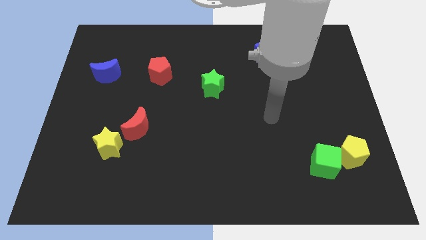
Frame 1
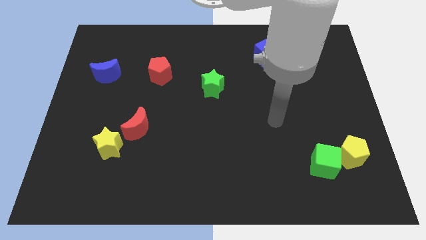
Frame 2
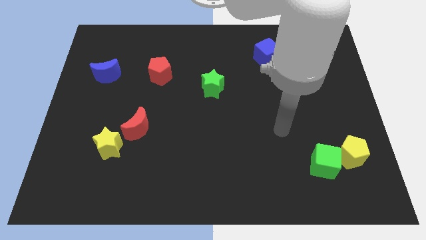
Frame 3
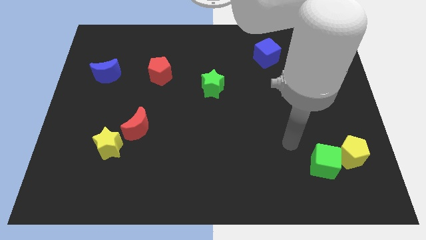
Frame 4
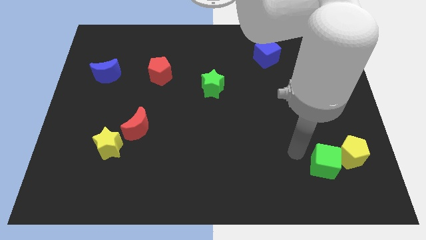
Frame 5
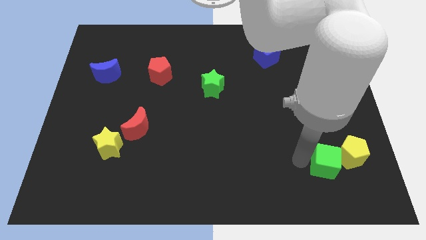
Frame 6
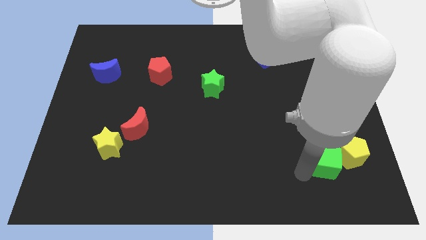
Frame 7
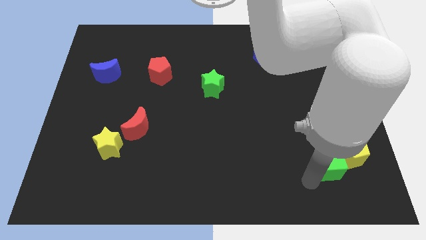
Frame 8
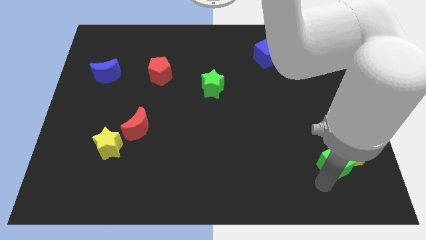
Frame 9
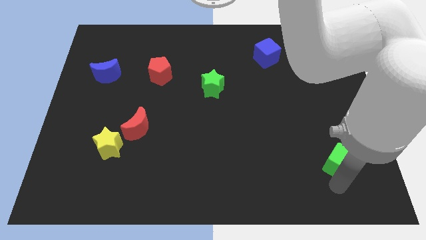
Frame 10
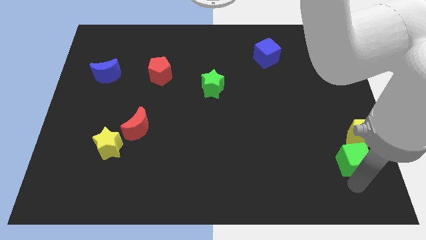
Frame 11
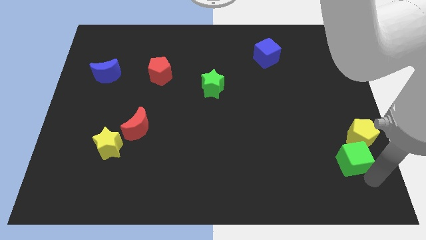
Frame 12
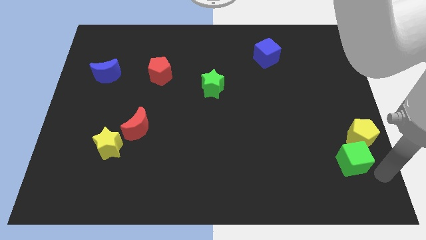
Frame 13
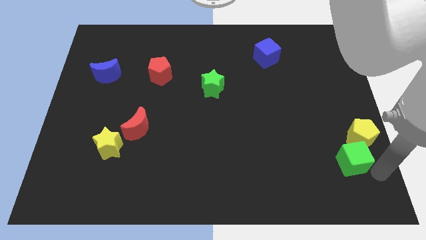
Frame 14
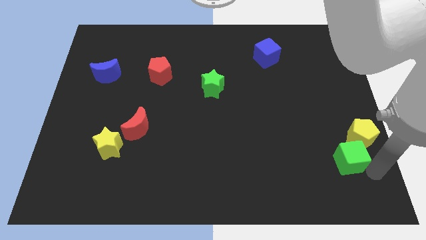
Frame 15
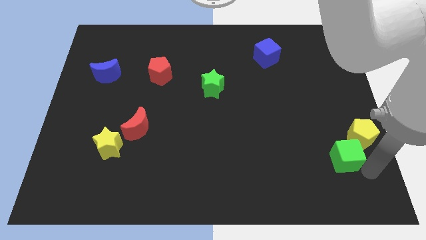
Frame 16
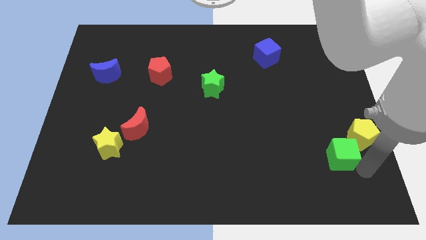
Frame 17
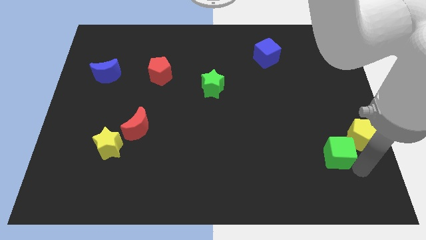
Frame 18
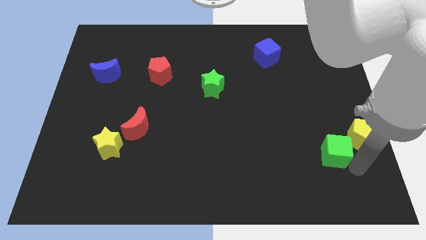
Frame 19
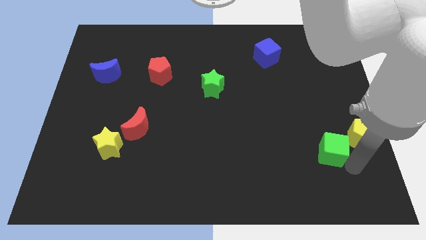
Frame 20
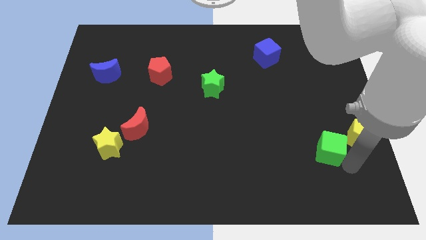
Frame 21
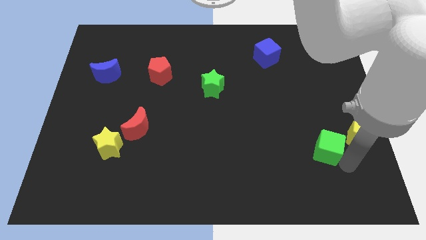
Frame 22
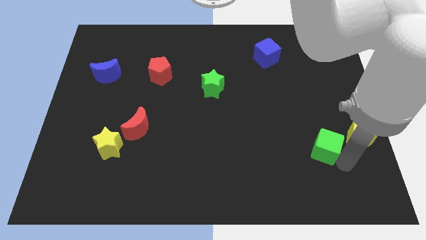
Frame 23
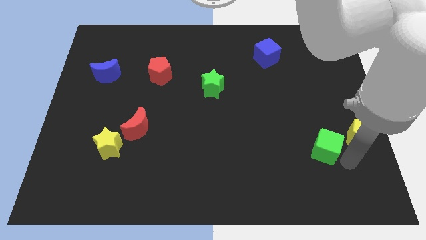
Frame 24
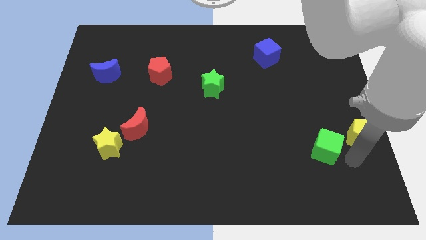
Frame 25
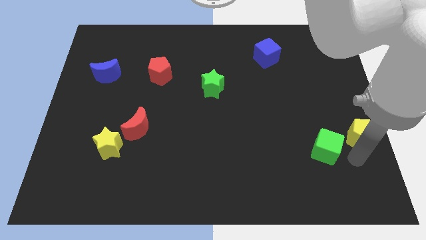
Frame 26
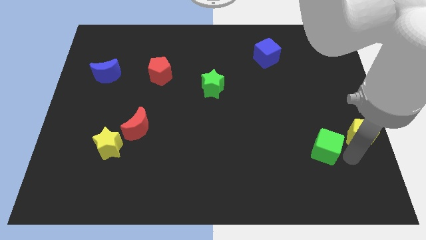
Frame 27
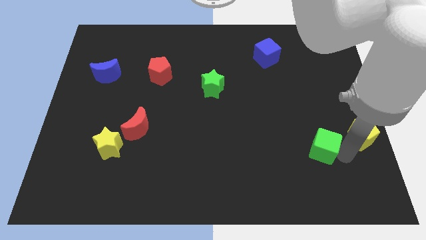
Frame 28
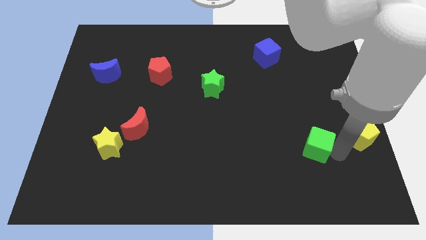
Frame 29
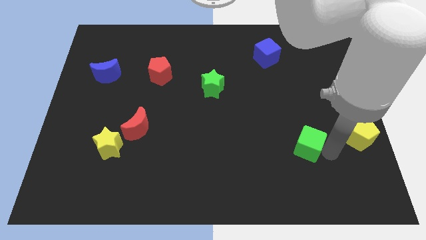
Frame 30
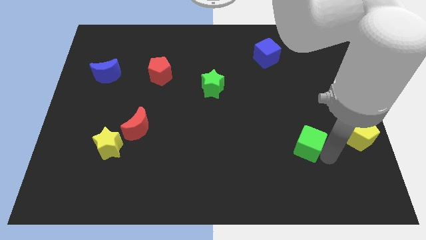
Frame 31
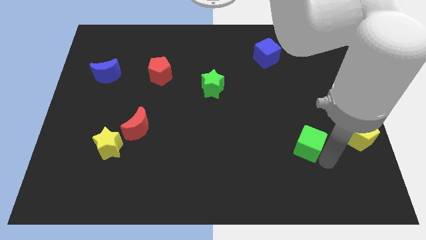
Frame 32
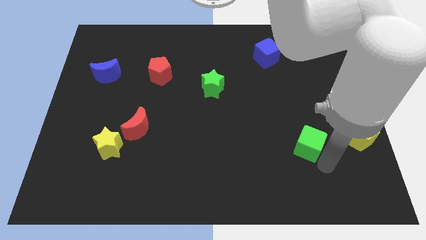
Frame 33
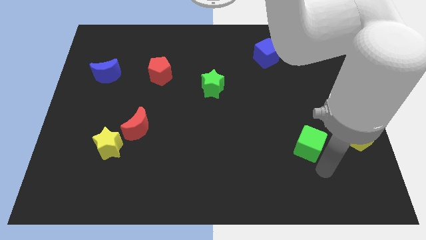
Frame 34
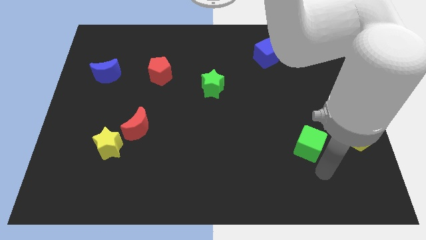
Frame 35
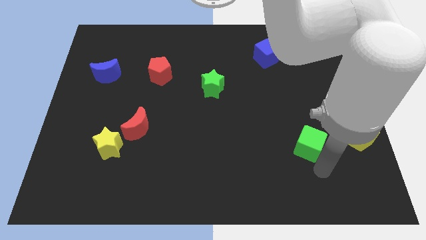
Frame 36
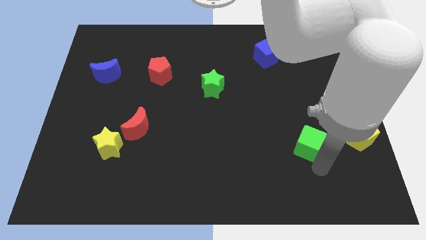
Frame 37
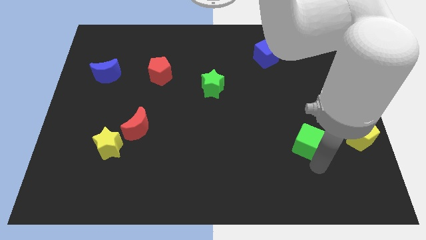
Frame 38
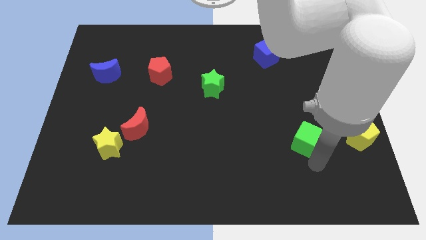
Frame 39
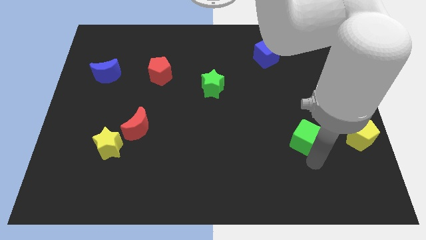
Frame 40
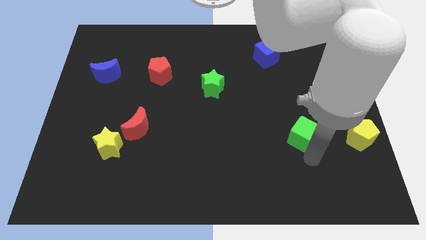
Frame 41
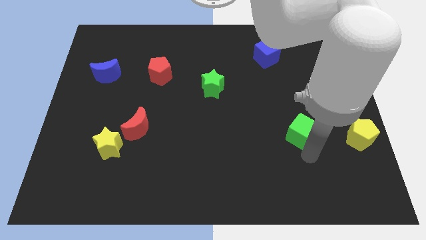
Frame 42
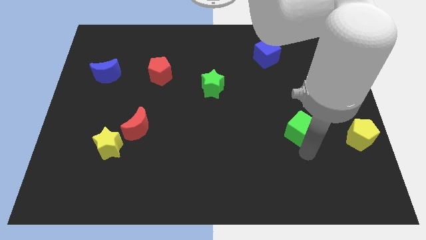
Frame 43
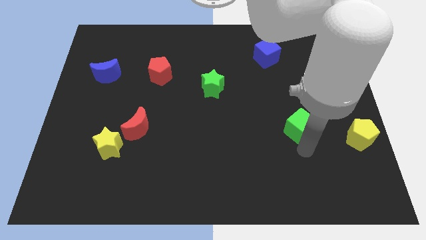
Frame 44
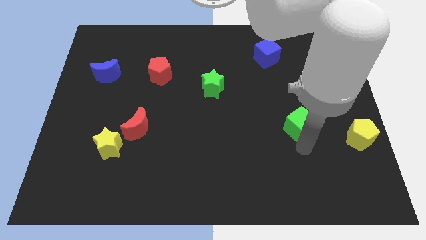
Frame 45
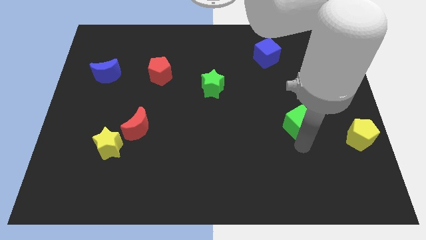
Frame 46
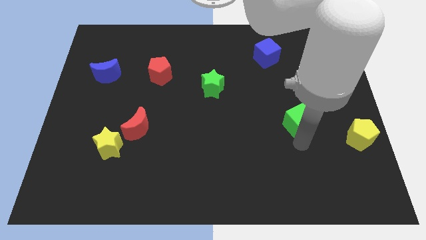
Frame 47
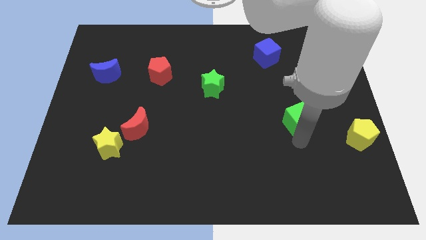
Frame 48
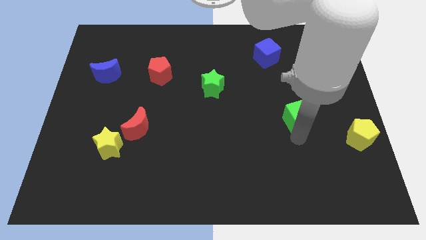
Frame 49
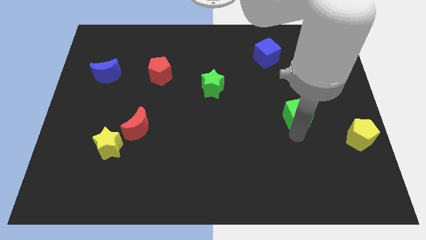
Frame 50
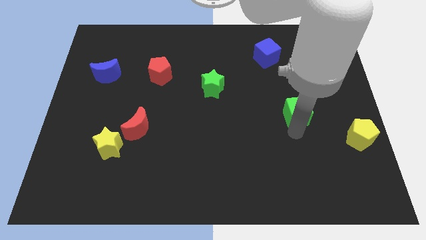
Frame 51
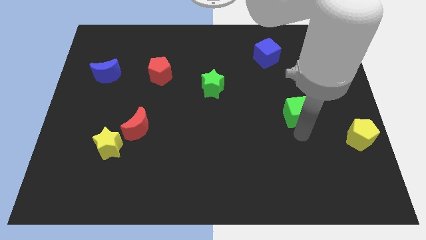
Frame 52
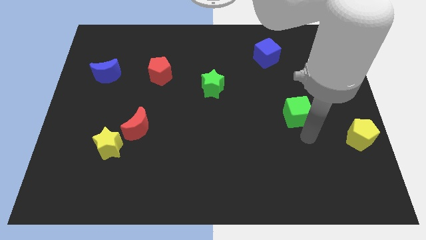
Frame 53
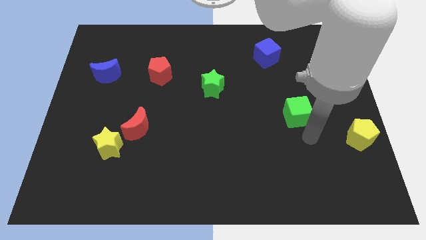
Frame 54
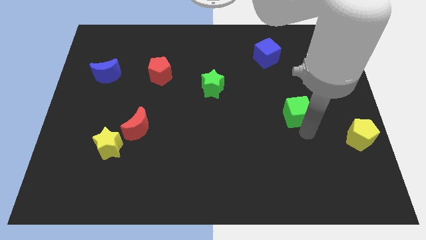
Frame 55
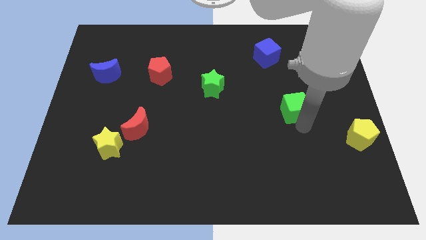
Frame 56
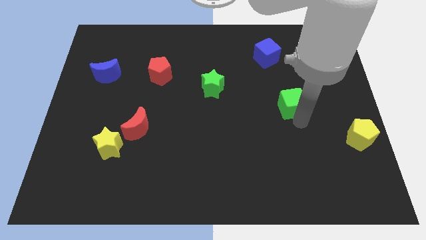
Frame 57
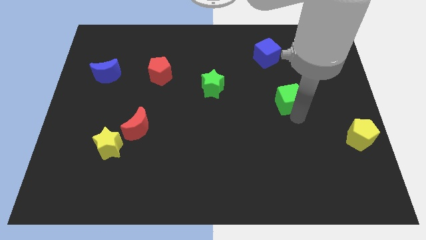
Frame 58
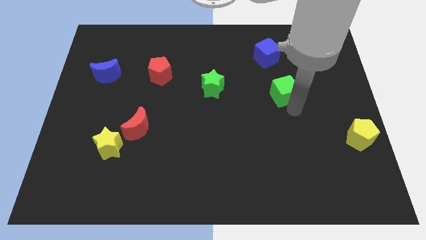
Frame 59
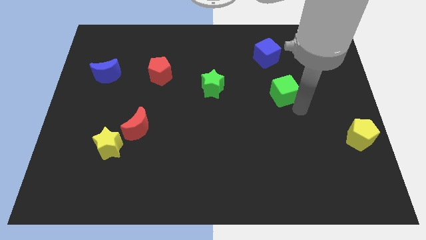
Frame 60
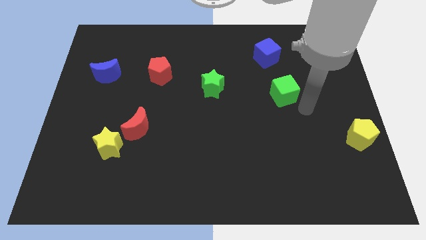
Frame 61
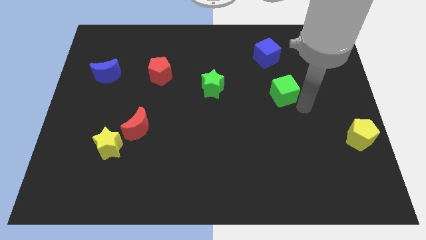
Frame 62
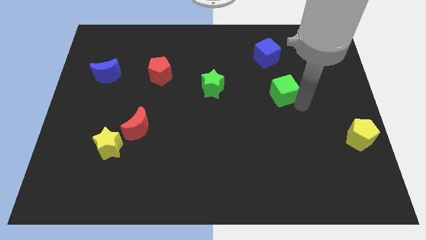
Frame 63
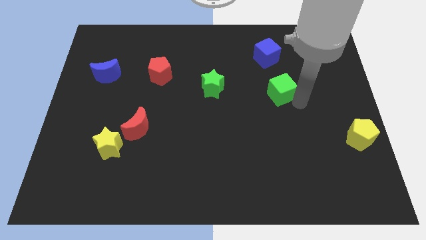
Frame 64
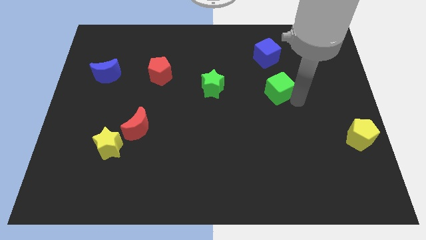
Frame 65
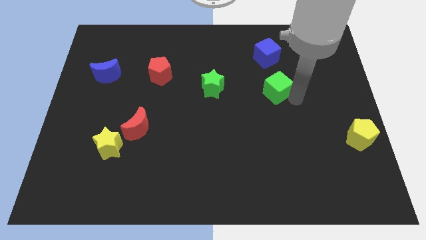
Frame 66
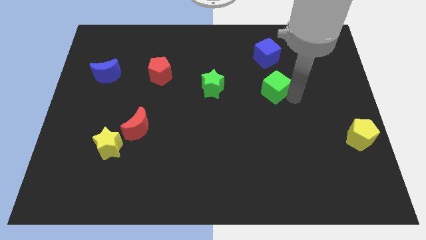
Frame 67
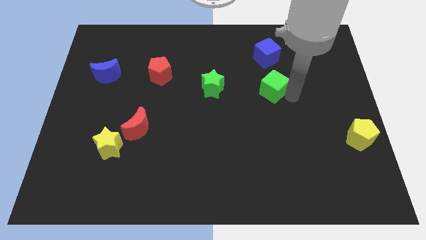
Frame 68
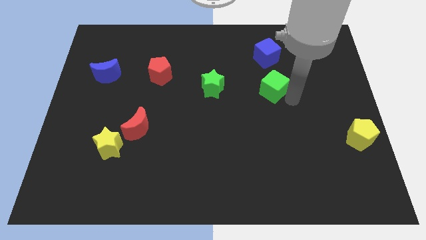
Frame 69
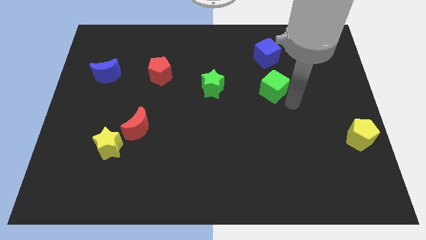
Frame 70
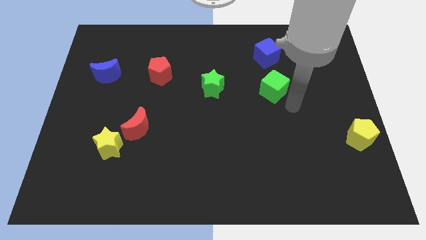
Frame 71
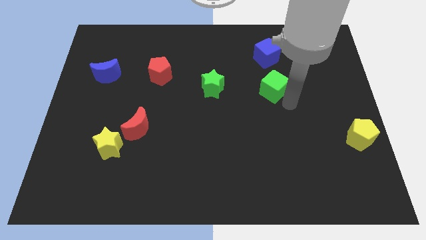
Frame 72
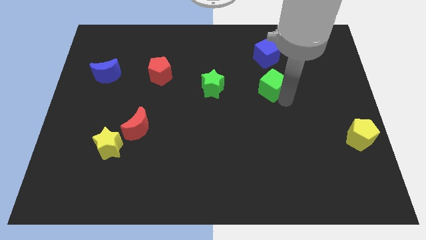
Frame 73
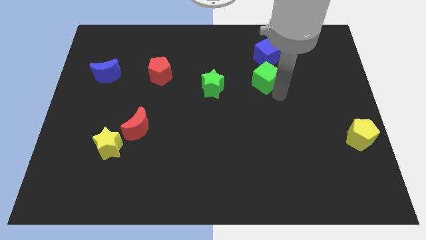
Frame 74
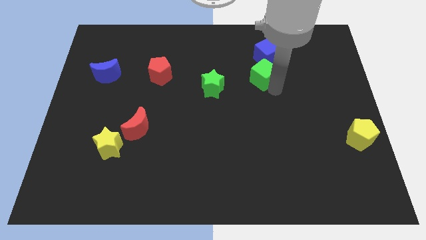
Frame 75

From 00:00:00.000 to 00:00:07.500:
put the green cube to the bottom left side of the blue cube
